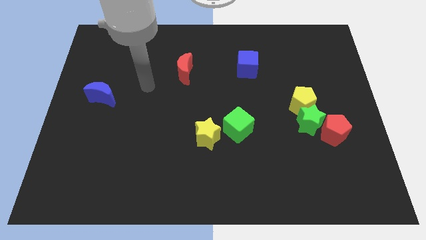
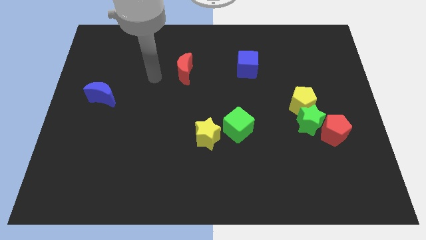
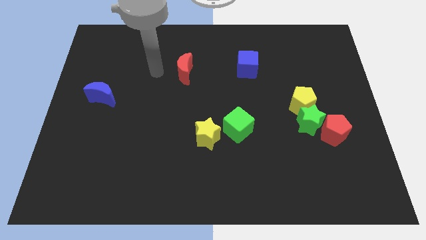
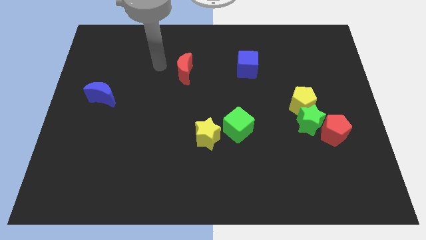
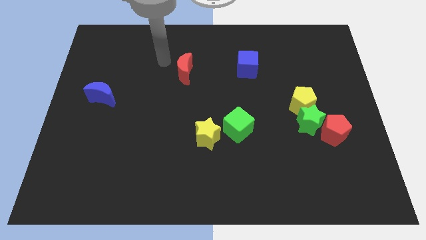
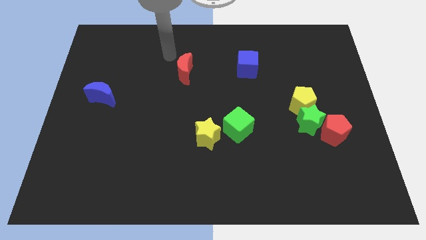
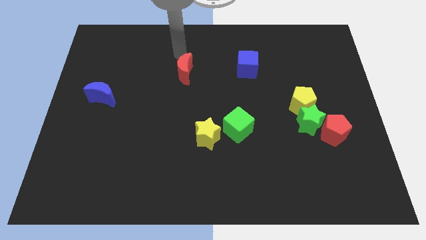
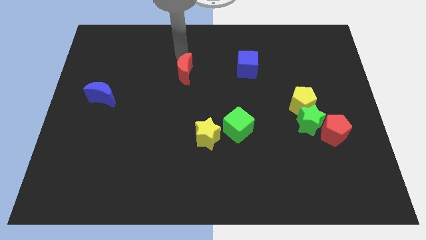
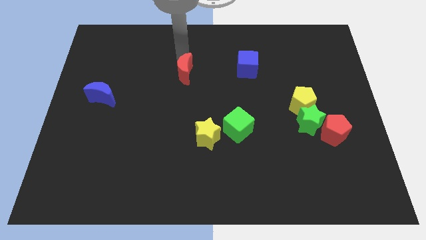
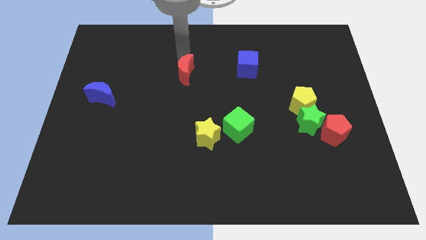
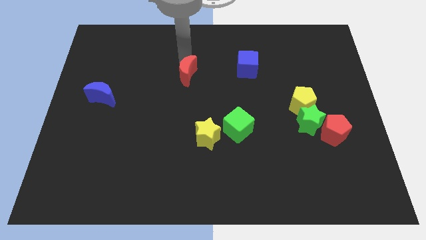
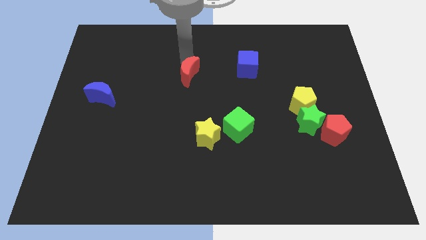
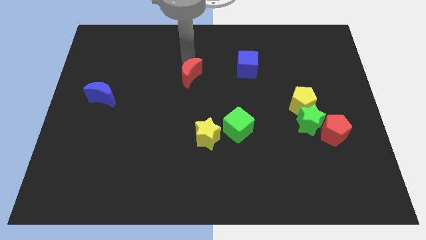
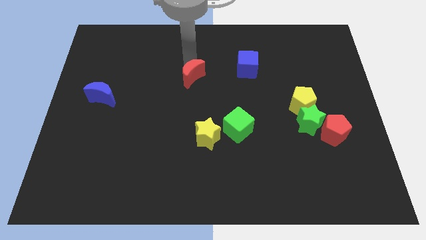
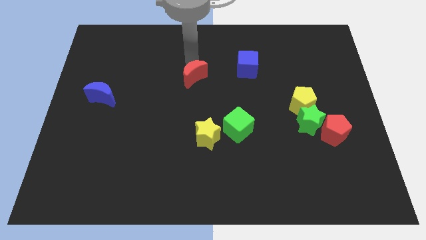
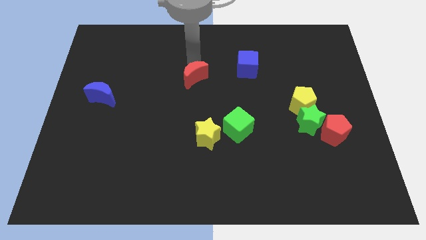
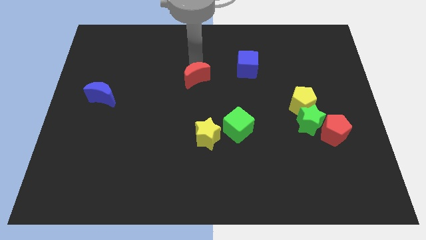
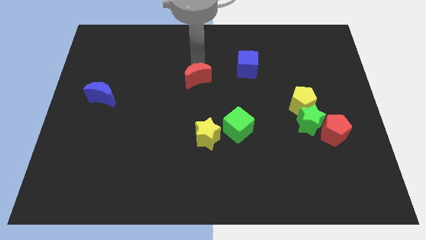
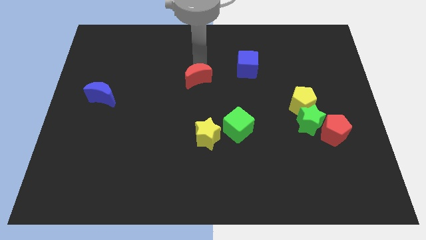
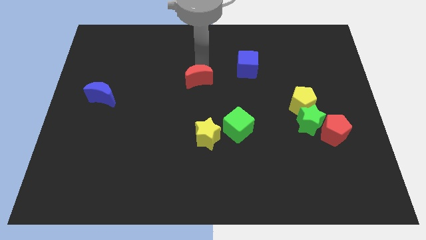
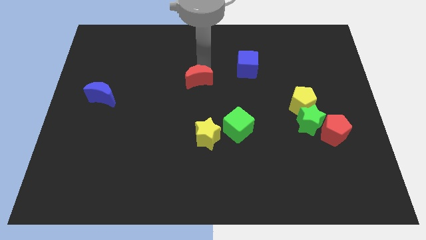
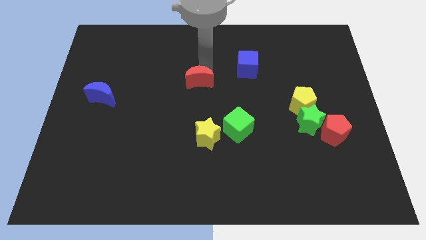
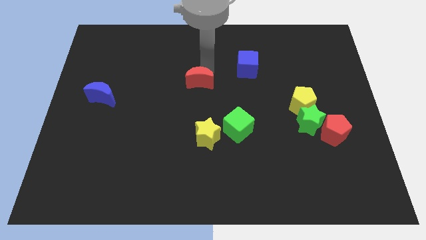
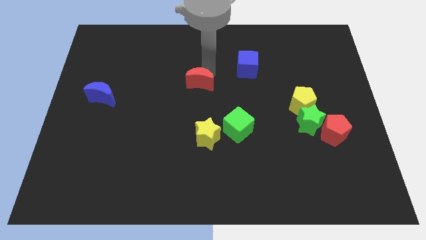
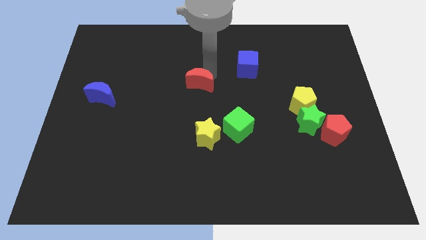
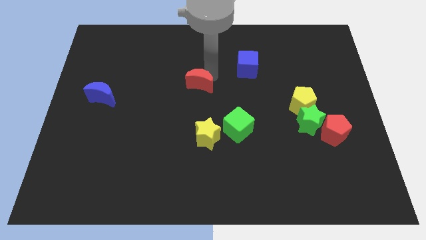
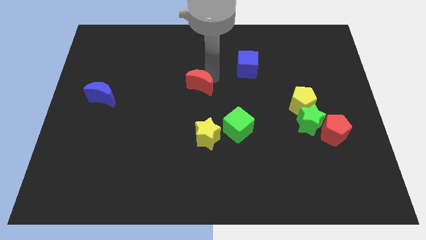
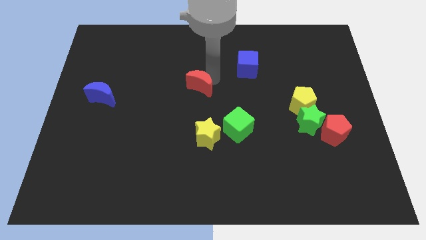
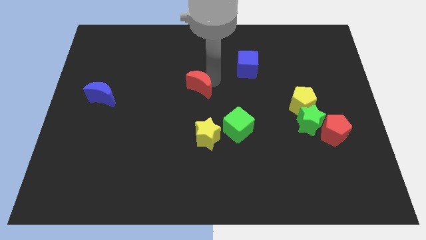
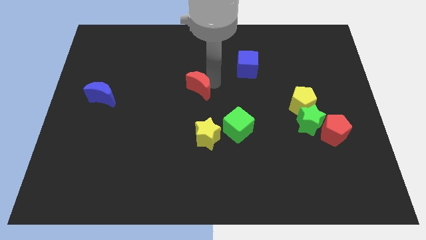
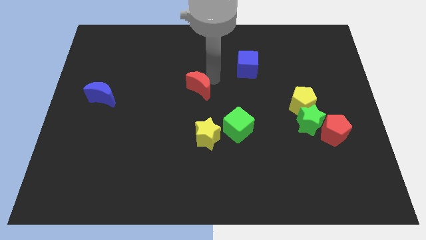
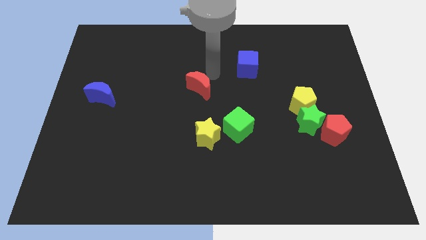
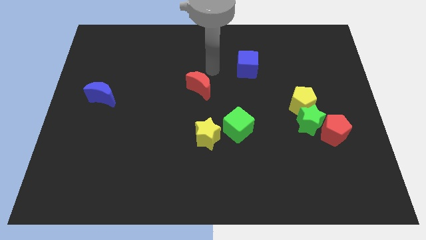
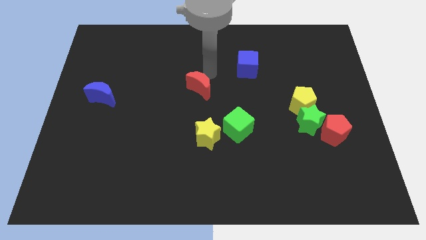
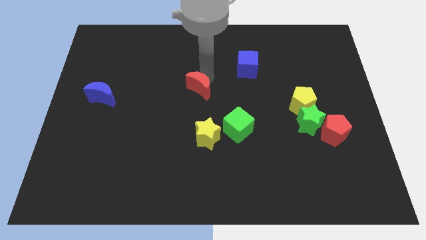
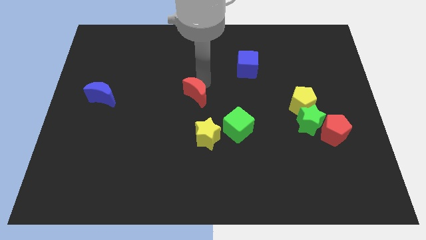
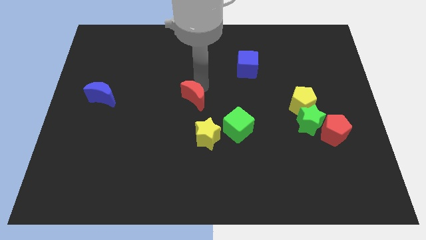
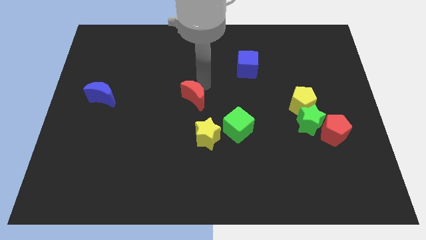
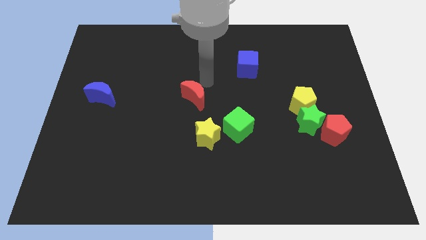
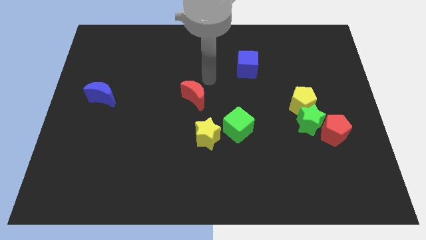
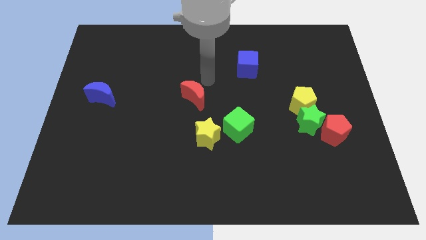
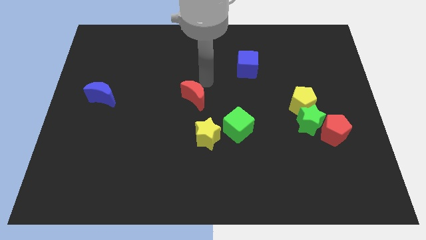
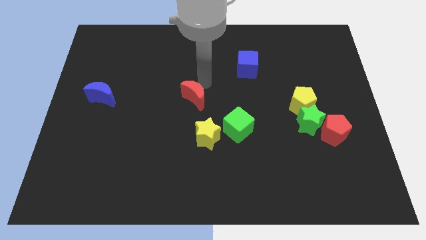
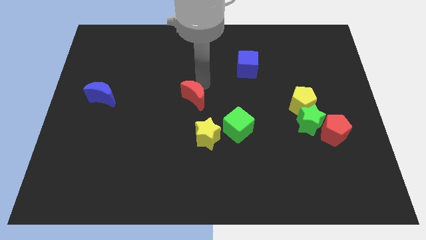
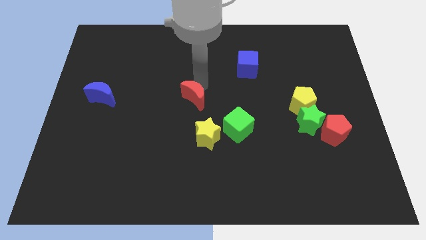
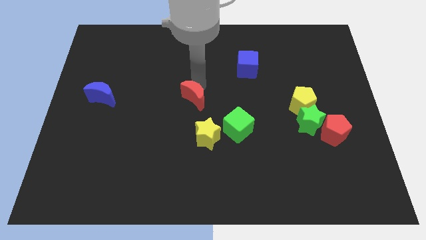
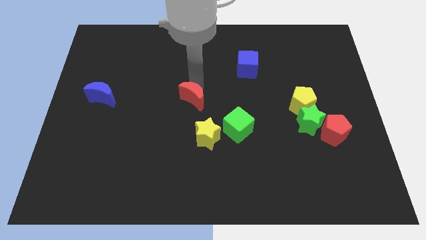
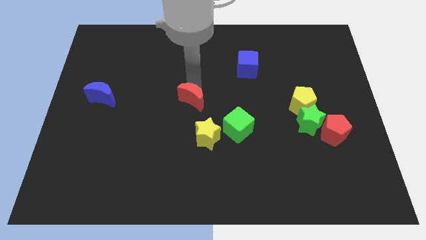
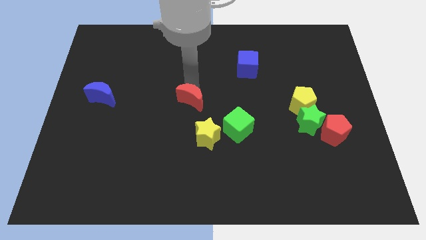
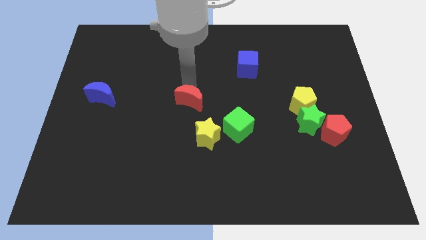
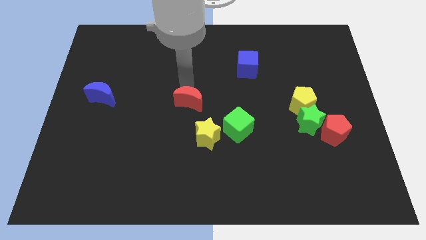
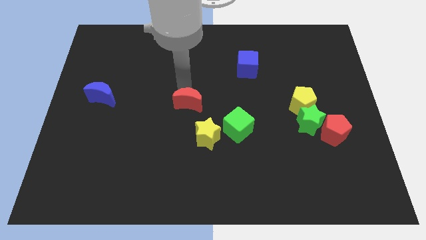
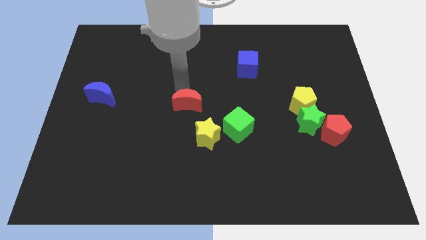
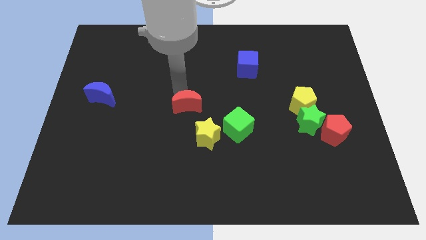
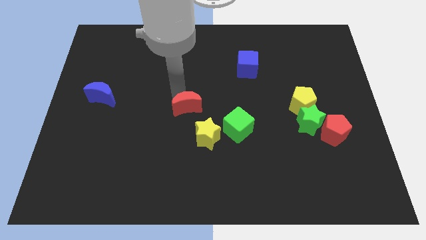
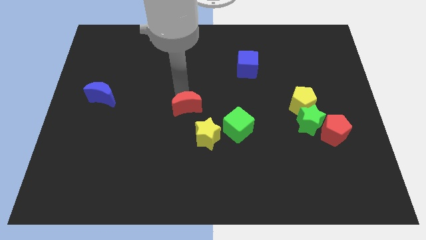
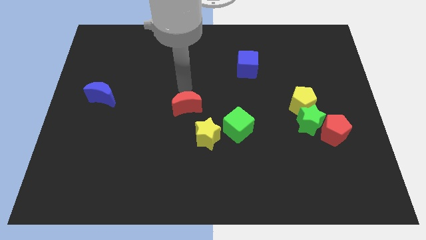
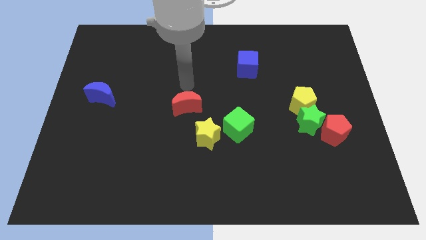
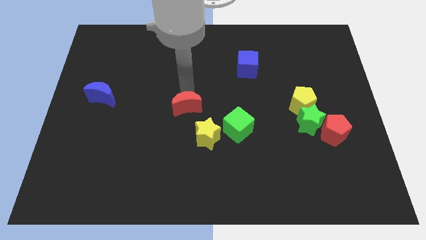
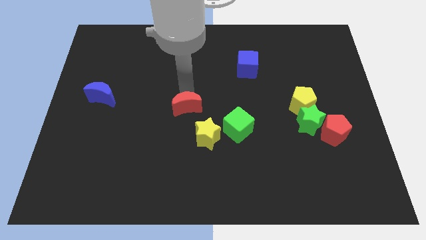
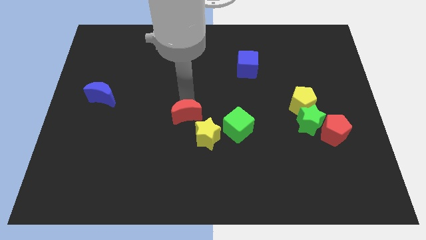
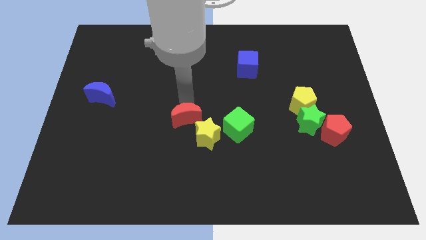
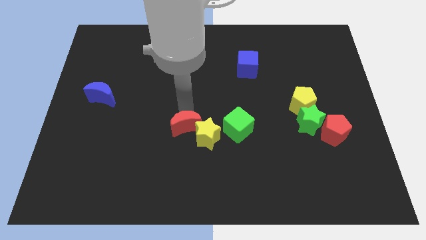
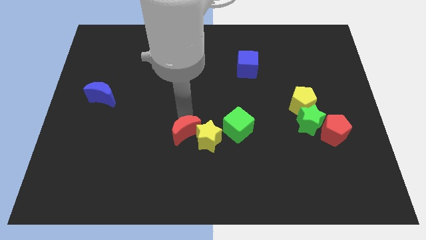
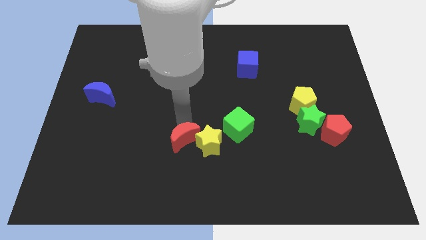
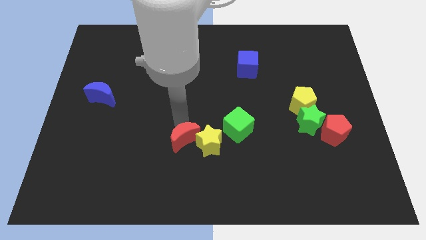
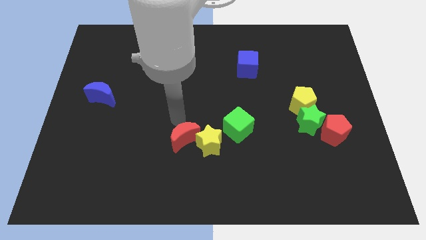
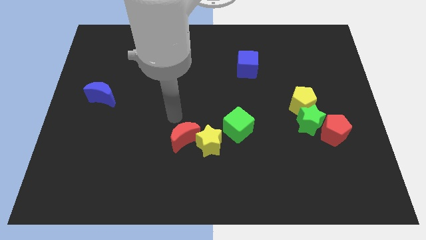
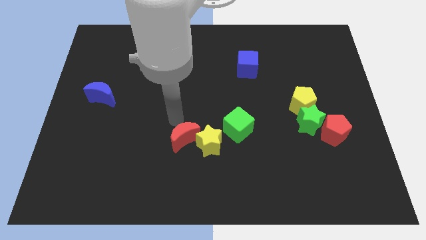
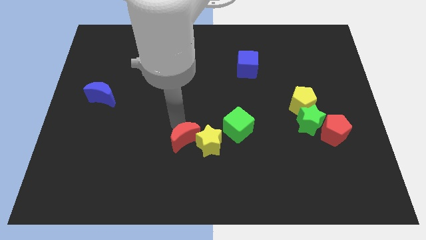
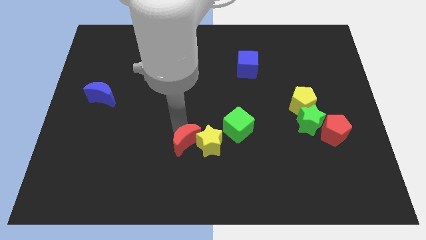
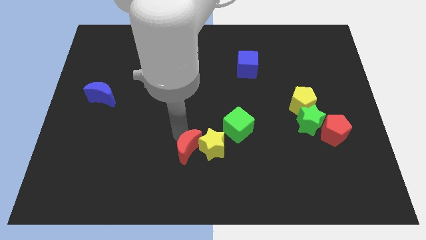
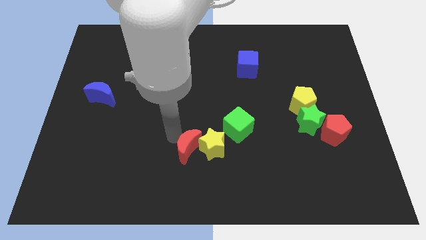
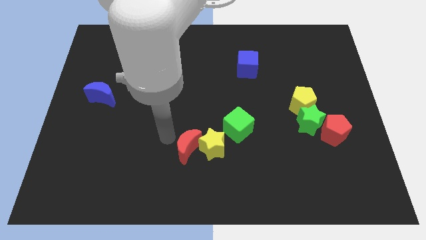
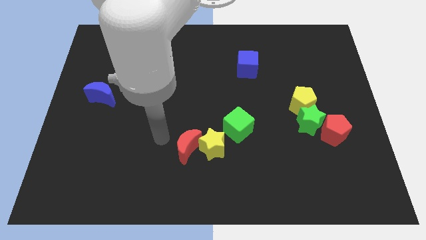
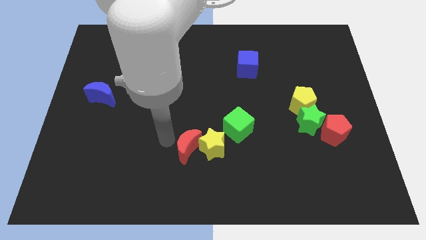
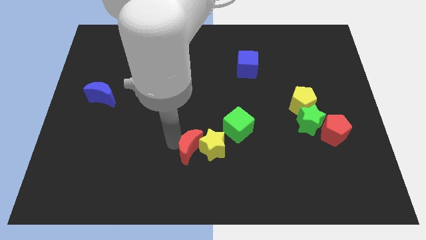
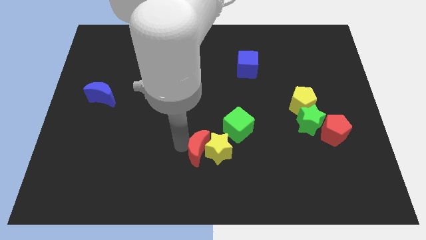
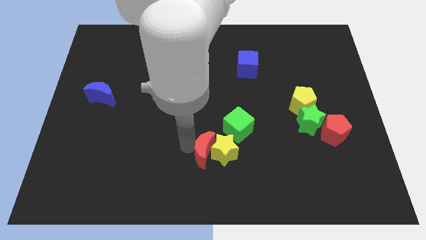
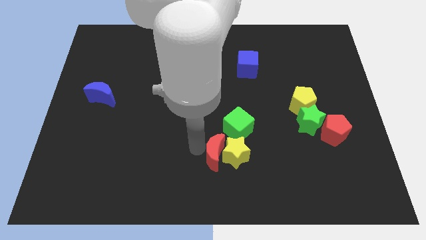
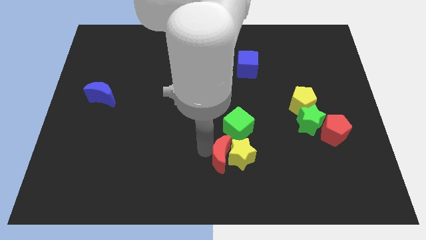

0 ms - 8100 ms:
push the red moon below the green cube
